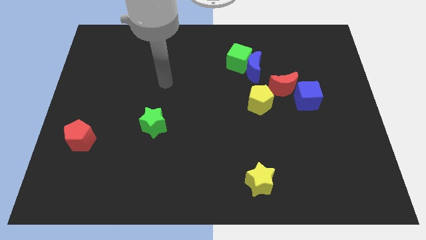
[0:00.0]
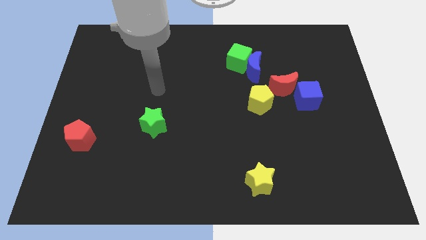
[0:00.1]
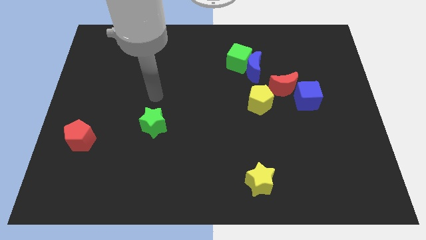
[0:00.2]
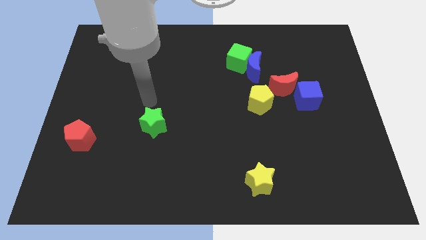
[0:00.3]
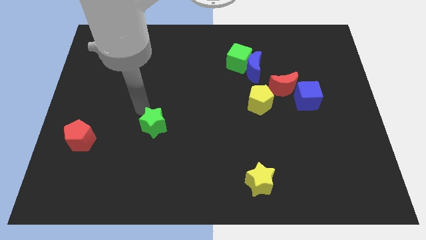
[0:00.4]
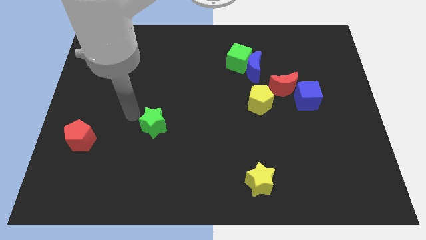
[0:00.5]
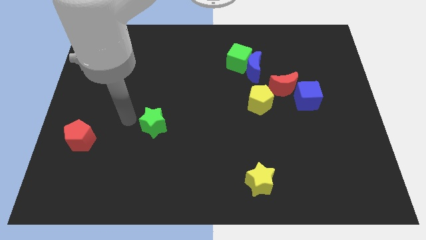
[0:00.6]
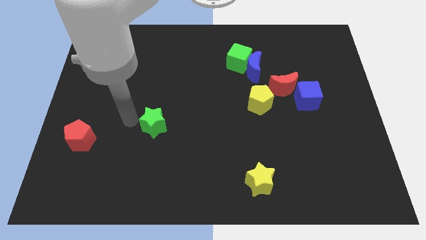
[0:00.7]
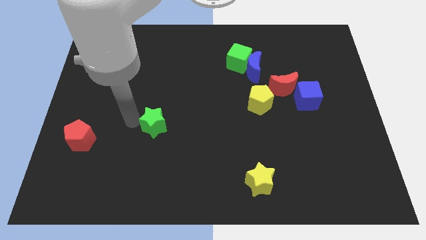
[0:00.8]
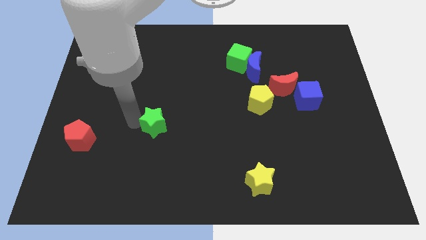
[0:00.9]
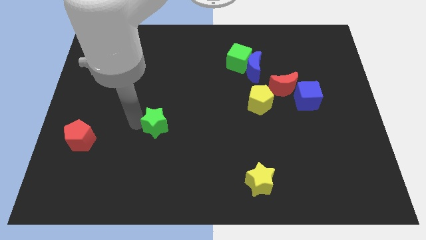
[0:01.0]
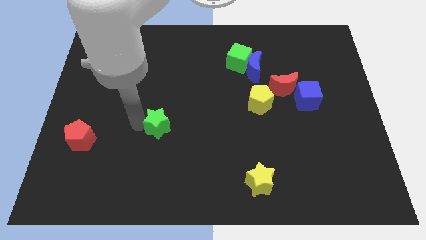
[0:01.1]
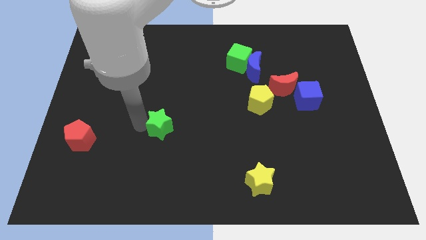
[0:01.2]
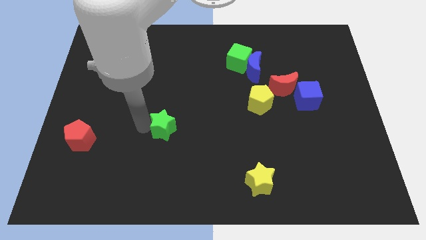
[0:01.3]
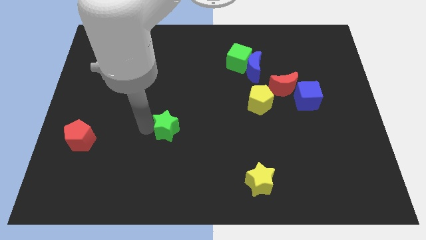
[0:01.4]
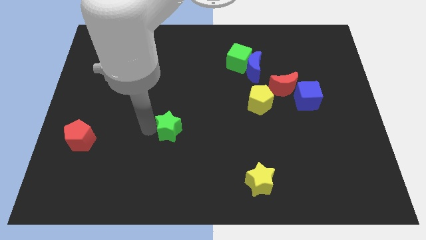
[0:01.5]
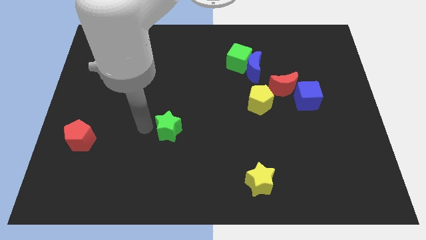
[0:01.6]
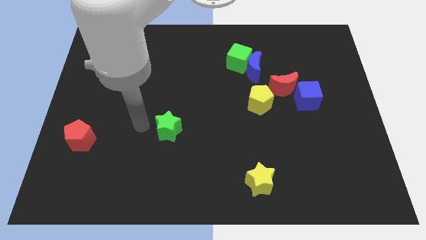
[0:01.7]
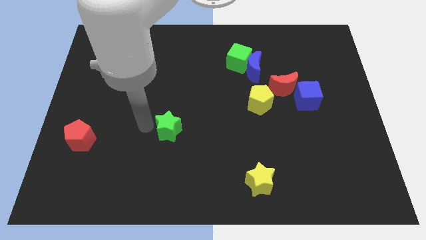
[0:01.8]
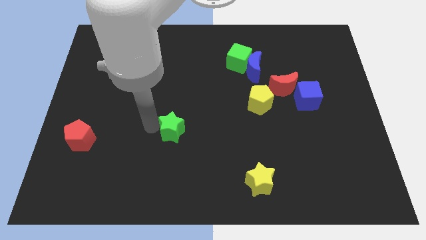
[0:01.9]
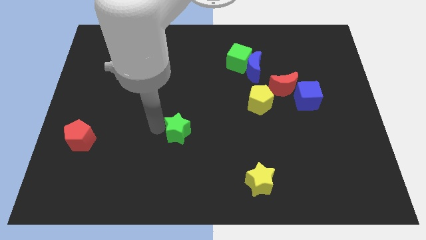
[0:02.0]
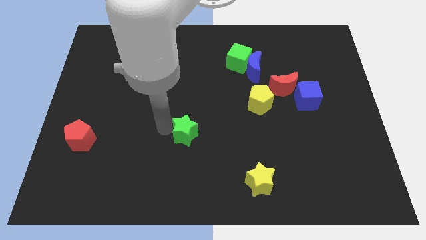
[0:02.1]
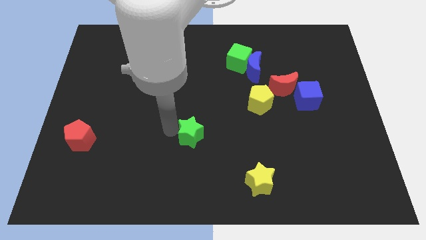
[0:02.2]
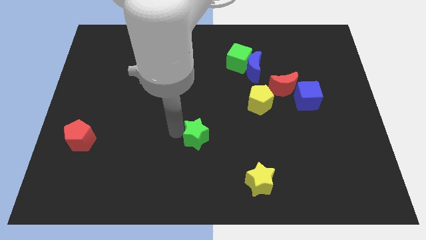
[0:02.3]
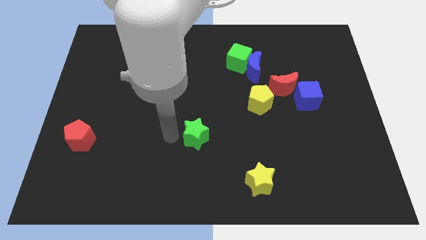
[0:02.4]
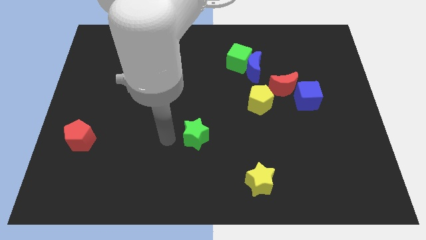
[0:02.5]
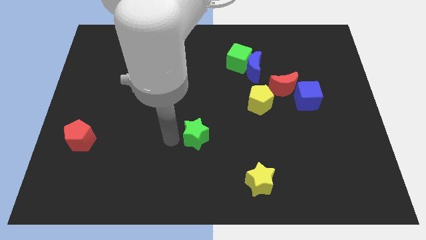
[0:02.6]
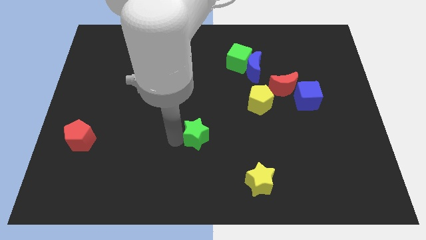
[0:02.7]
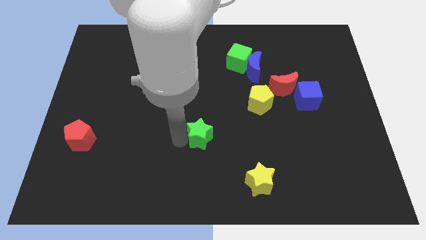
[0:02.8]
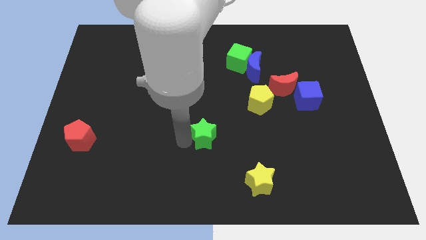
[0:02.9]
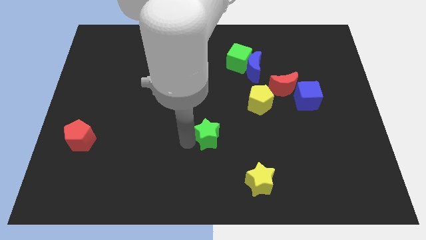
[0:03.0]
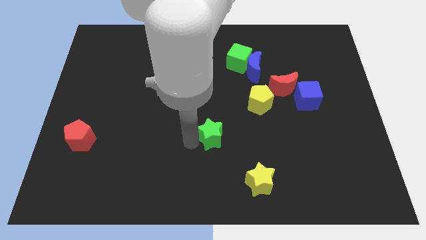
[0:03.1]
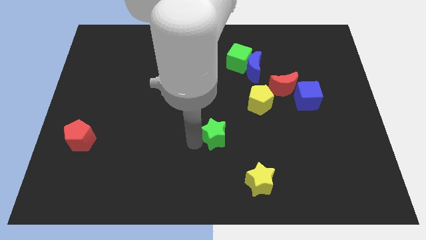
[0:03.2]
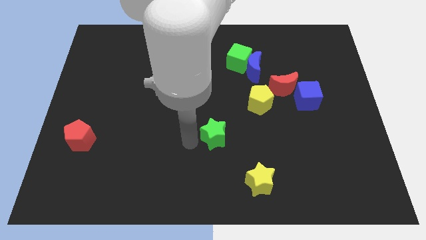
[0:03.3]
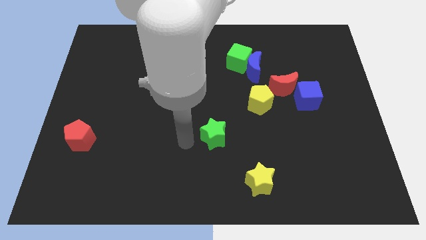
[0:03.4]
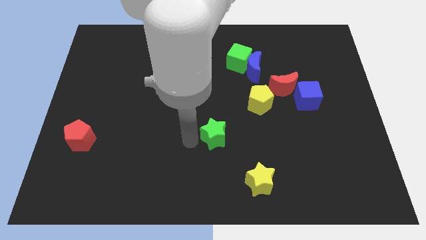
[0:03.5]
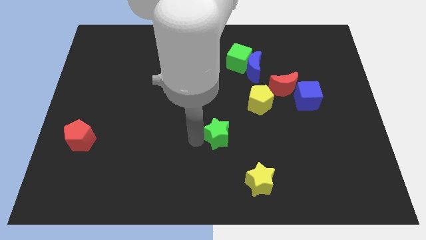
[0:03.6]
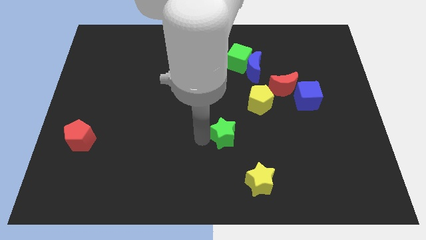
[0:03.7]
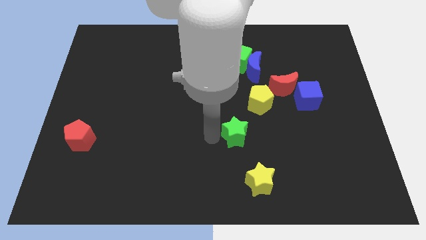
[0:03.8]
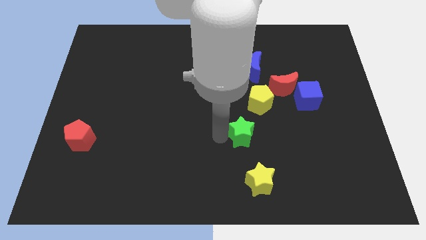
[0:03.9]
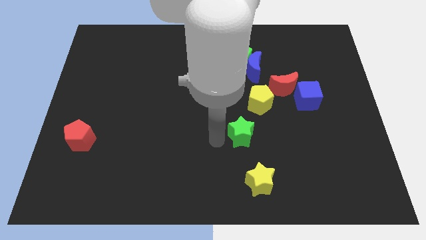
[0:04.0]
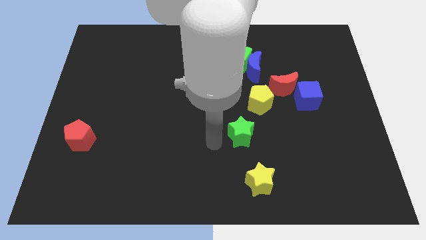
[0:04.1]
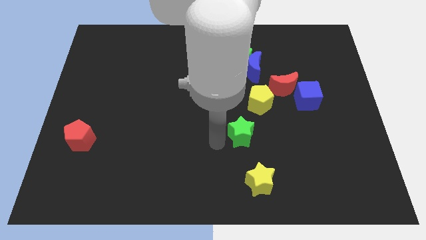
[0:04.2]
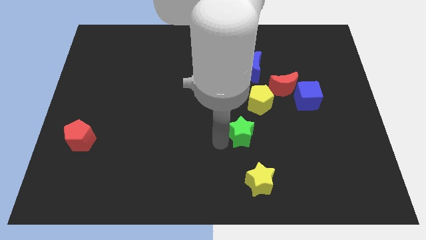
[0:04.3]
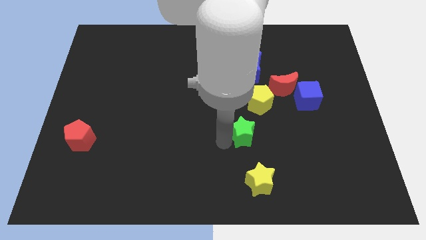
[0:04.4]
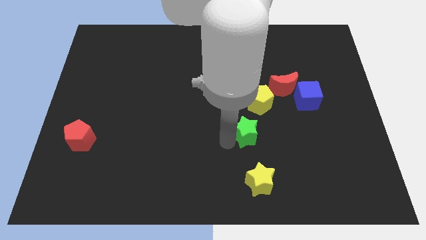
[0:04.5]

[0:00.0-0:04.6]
push the green star to the right

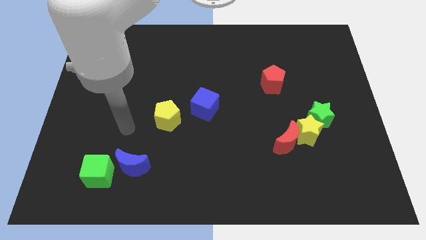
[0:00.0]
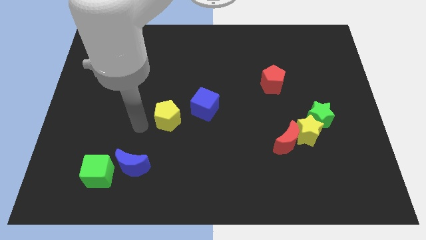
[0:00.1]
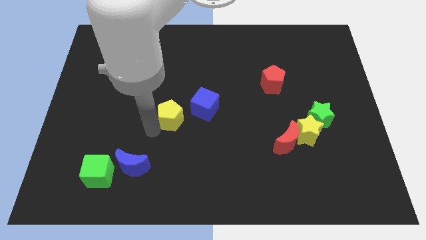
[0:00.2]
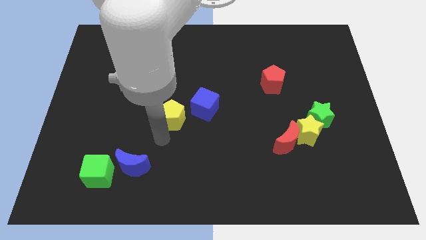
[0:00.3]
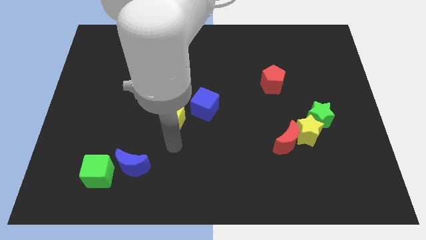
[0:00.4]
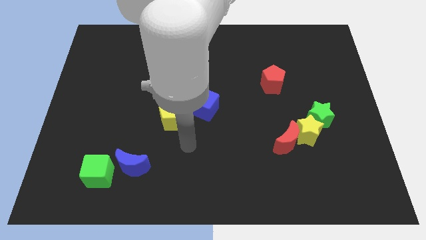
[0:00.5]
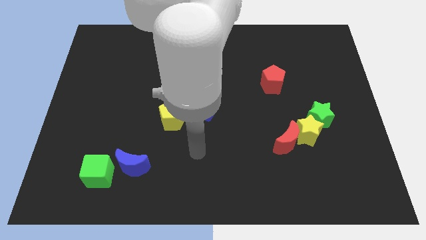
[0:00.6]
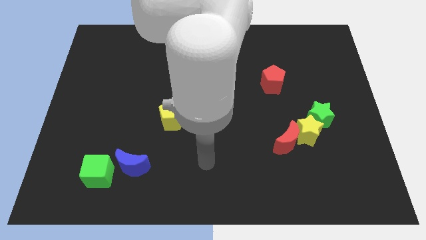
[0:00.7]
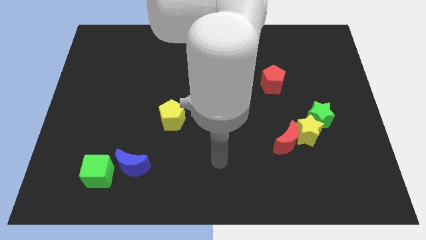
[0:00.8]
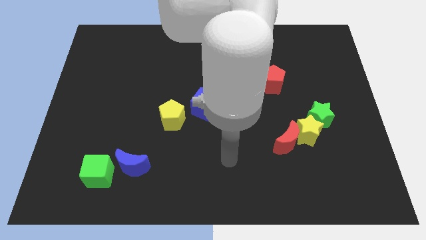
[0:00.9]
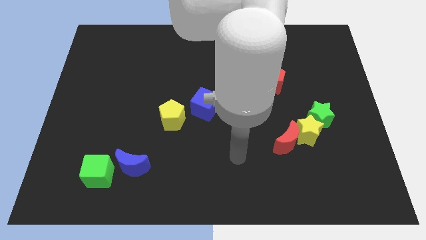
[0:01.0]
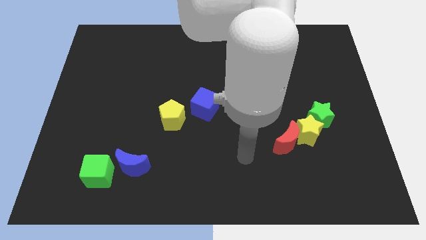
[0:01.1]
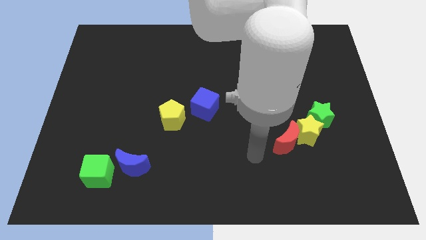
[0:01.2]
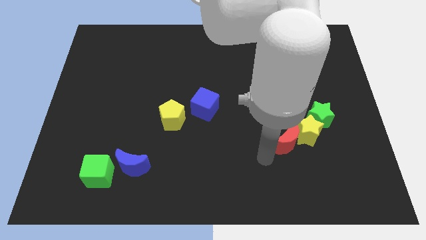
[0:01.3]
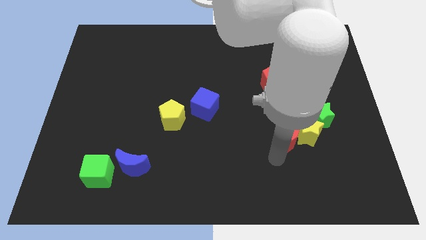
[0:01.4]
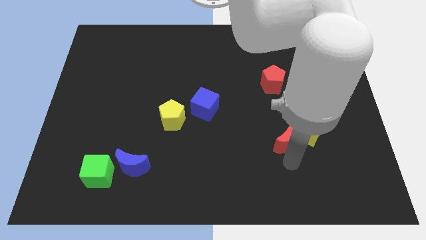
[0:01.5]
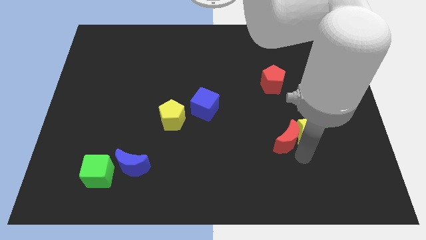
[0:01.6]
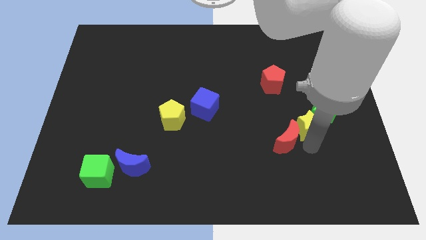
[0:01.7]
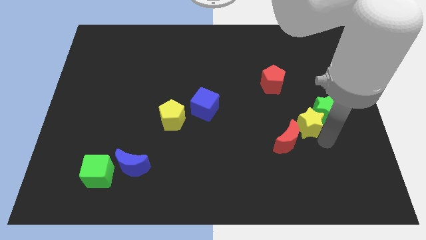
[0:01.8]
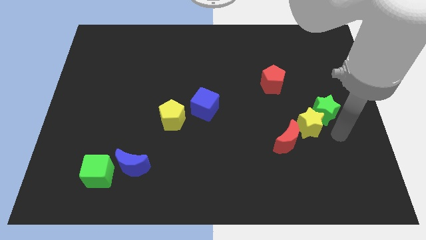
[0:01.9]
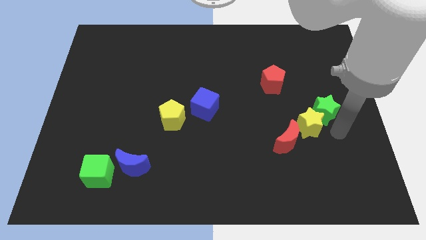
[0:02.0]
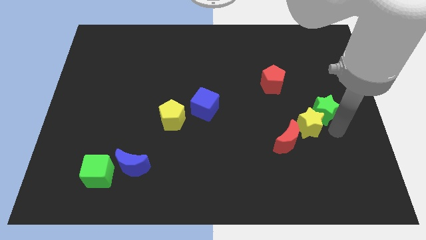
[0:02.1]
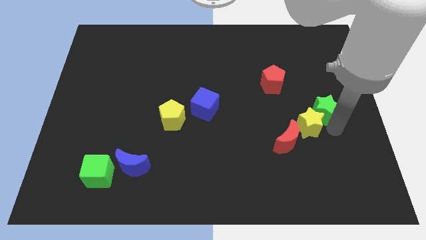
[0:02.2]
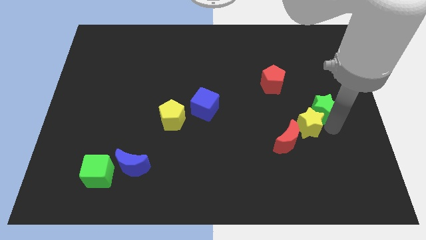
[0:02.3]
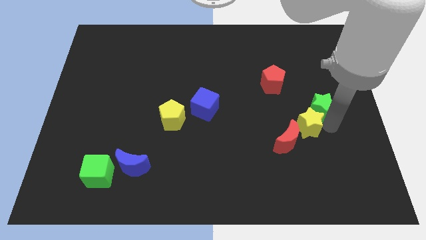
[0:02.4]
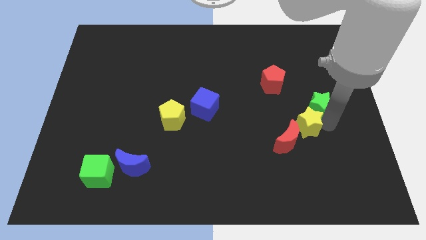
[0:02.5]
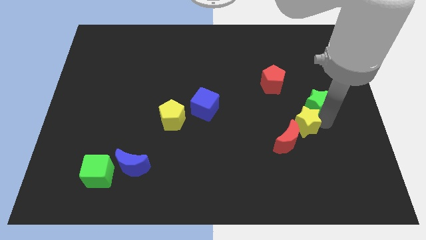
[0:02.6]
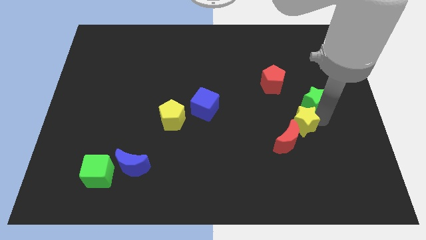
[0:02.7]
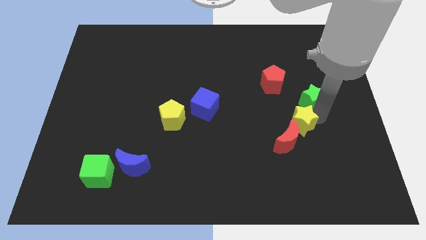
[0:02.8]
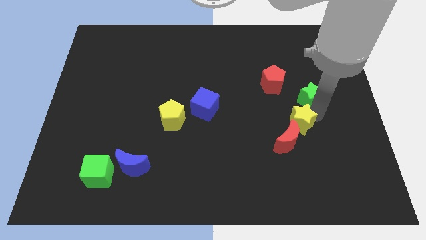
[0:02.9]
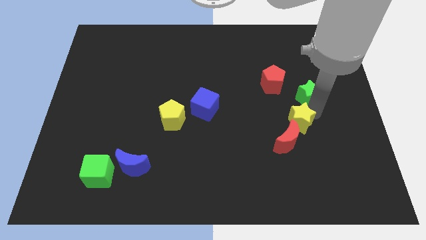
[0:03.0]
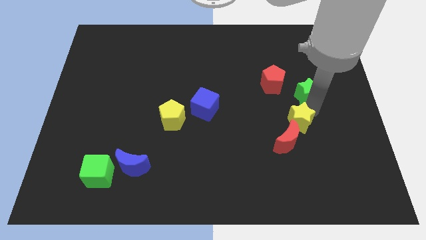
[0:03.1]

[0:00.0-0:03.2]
move the green star up a little bit
